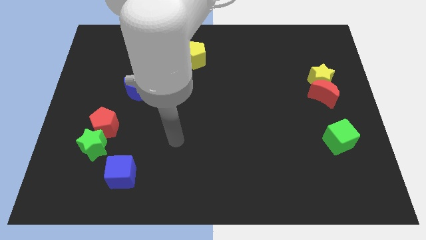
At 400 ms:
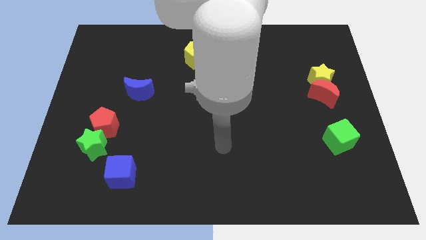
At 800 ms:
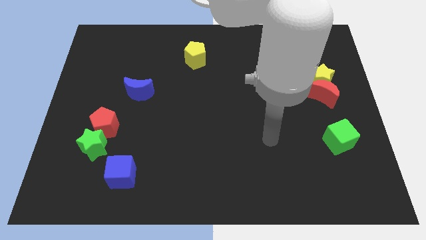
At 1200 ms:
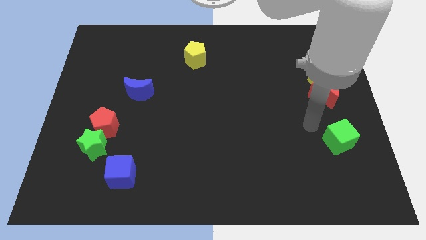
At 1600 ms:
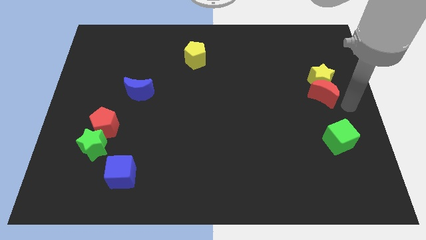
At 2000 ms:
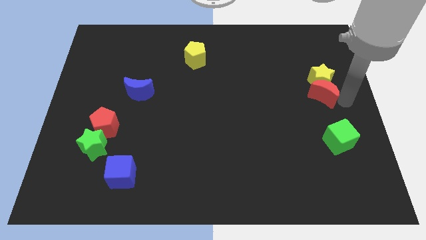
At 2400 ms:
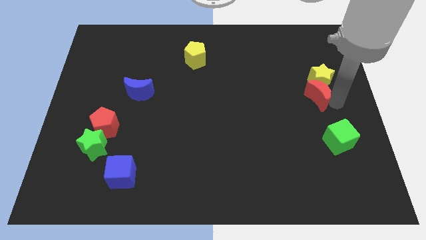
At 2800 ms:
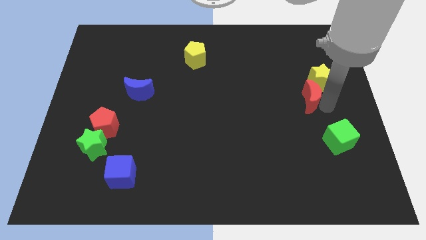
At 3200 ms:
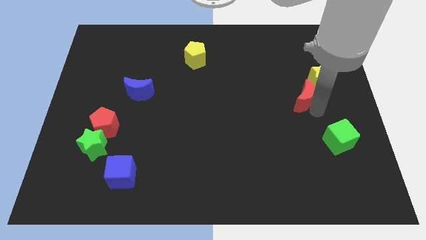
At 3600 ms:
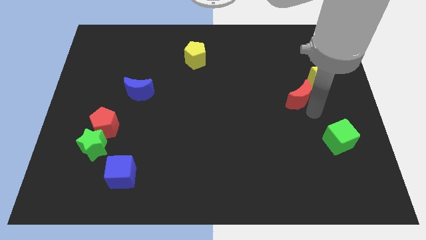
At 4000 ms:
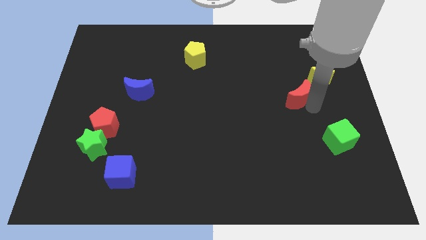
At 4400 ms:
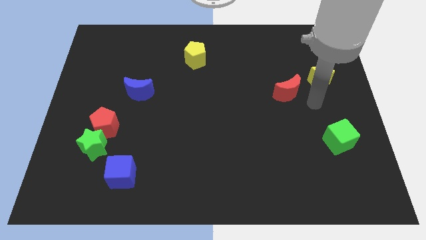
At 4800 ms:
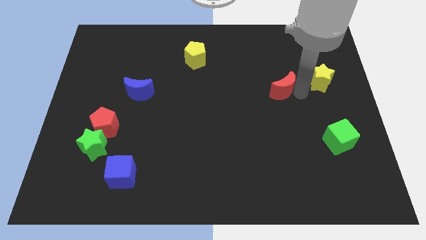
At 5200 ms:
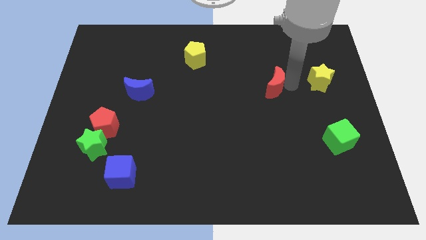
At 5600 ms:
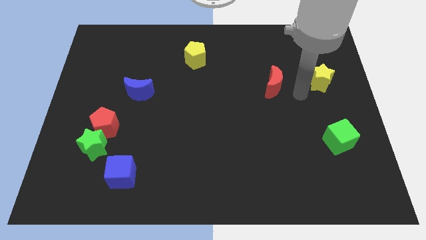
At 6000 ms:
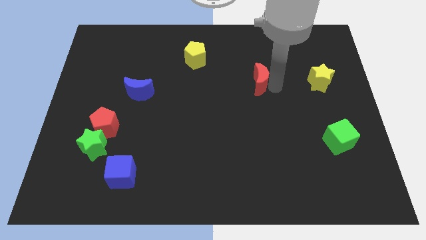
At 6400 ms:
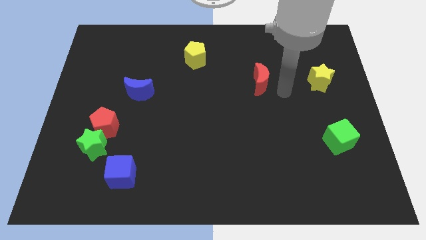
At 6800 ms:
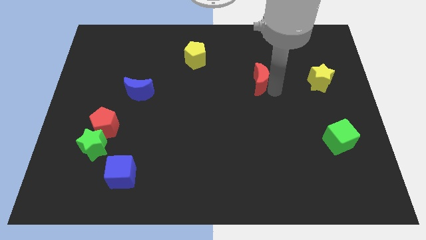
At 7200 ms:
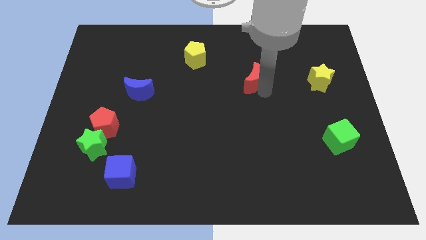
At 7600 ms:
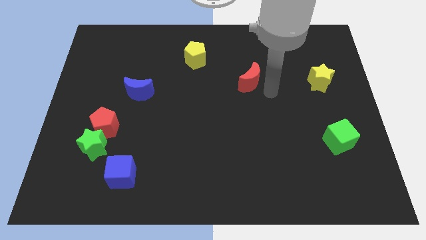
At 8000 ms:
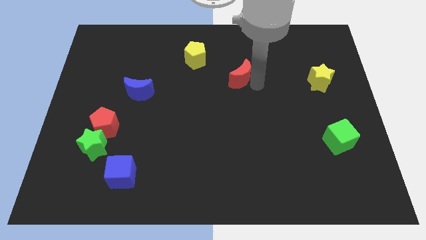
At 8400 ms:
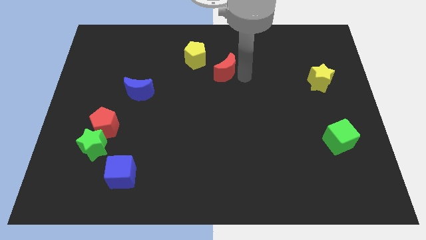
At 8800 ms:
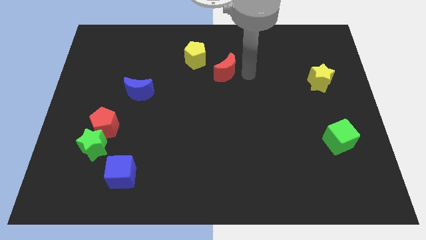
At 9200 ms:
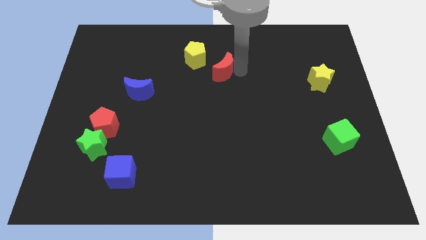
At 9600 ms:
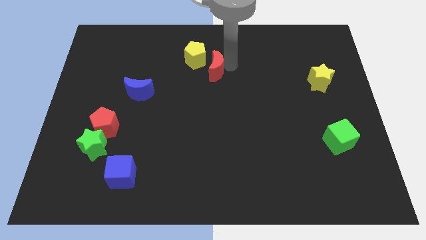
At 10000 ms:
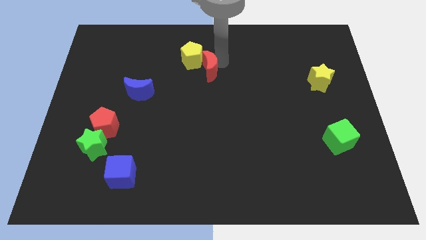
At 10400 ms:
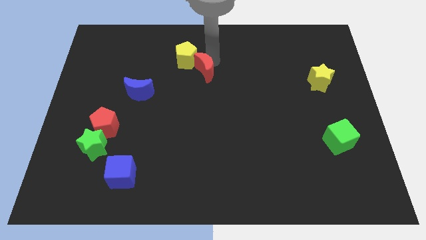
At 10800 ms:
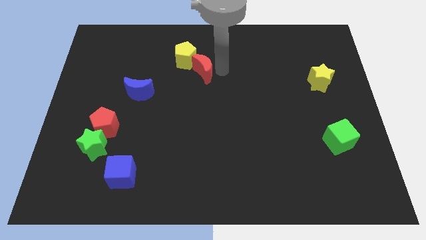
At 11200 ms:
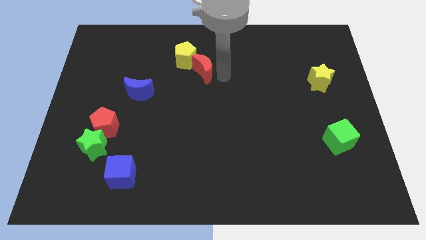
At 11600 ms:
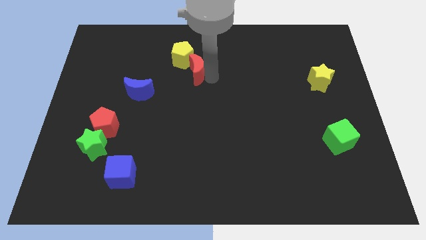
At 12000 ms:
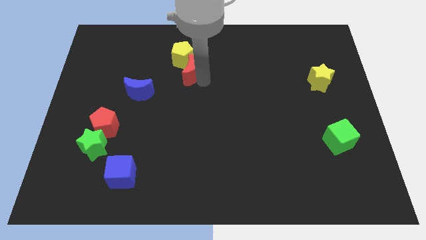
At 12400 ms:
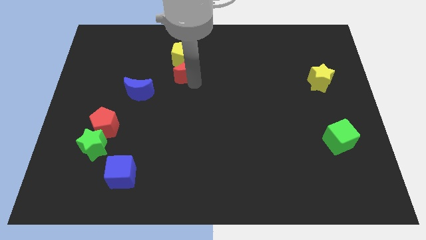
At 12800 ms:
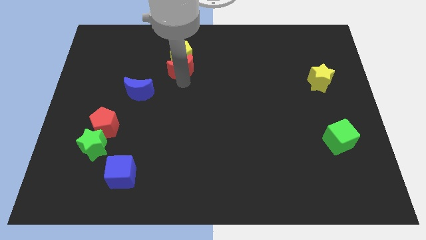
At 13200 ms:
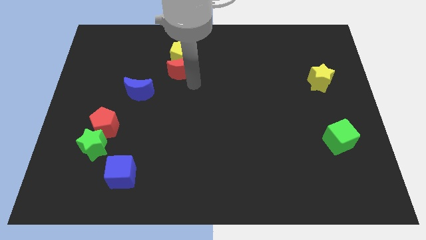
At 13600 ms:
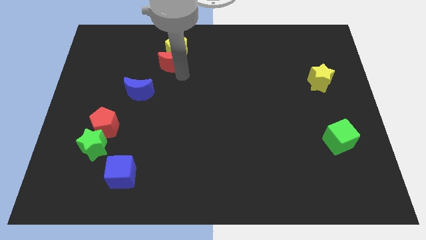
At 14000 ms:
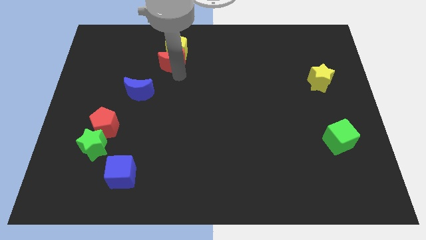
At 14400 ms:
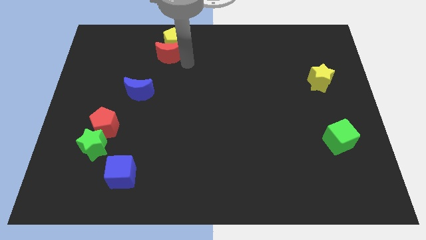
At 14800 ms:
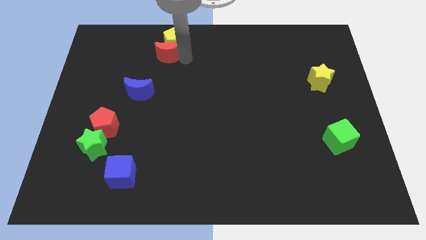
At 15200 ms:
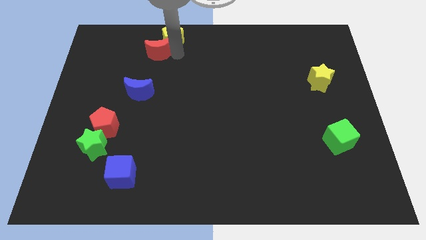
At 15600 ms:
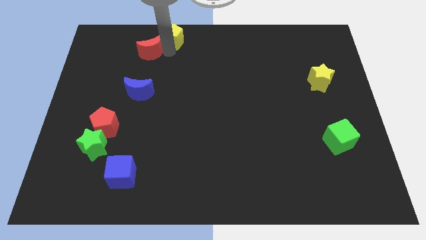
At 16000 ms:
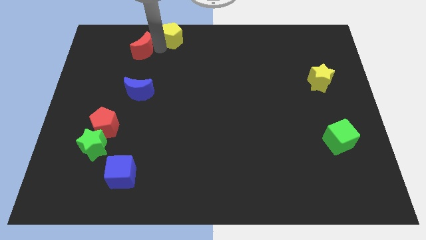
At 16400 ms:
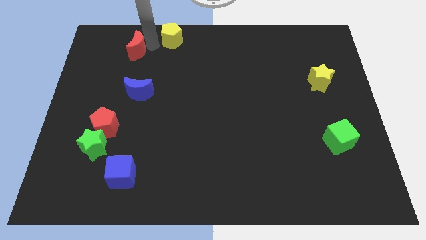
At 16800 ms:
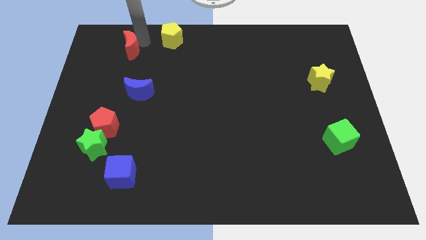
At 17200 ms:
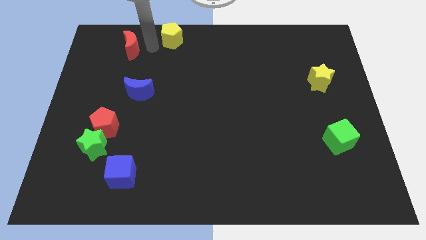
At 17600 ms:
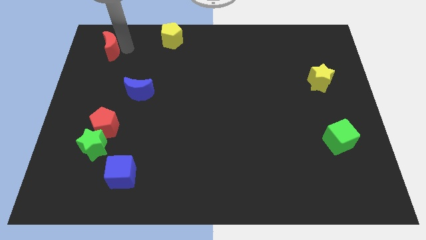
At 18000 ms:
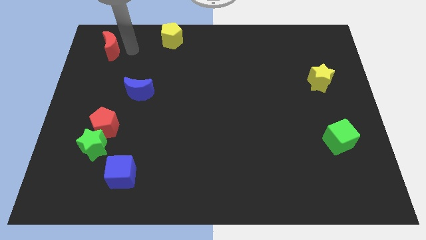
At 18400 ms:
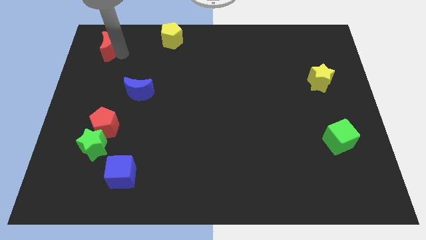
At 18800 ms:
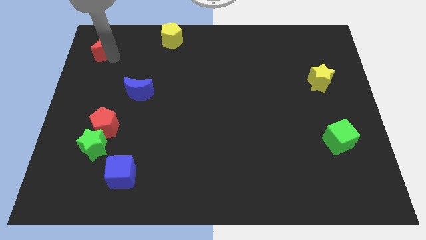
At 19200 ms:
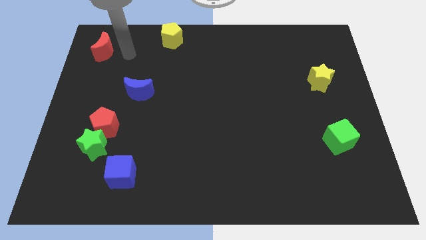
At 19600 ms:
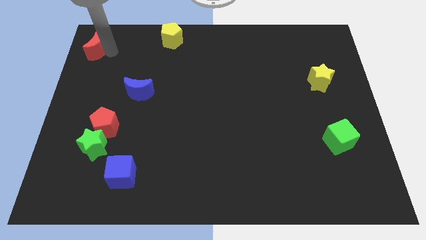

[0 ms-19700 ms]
push the red moon to the top left of the board

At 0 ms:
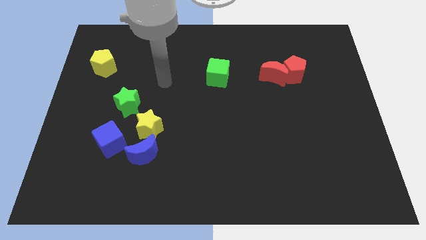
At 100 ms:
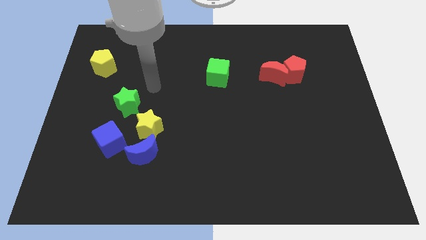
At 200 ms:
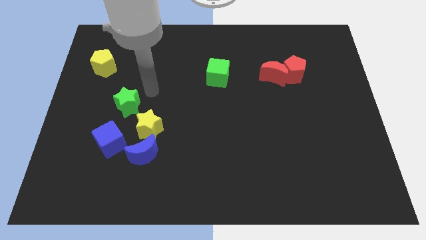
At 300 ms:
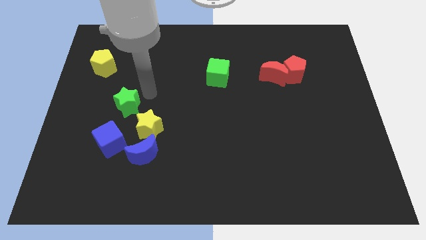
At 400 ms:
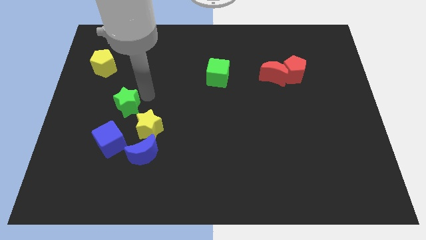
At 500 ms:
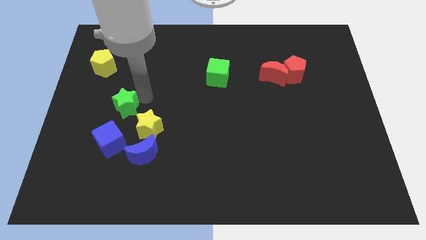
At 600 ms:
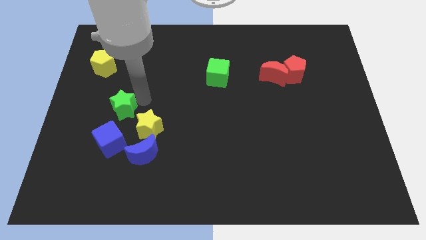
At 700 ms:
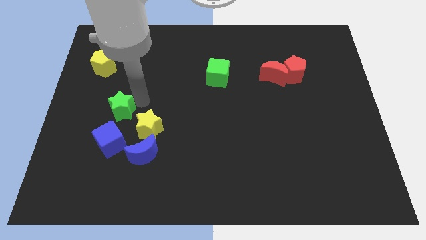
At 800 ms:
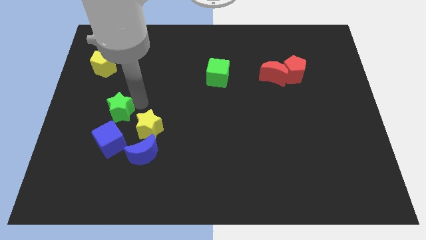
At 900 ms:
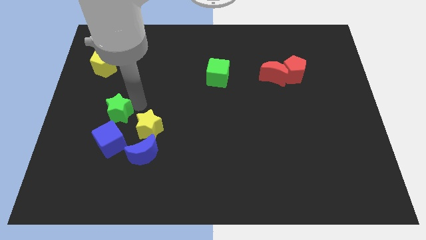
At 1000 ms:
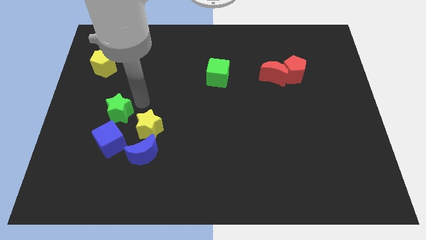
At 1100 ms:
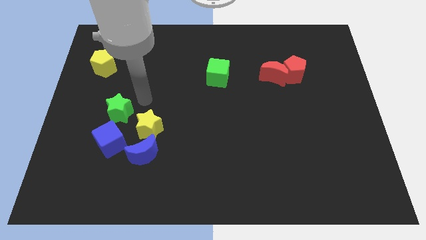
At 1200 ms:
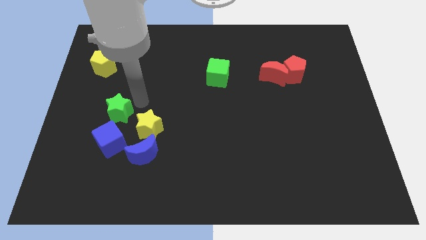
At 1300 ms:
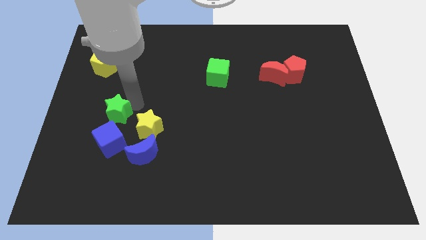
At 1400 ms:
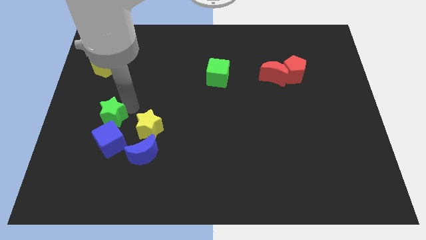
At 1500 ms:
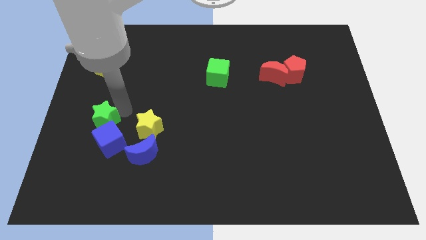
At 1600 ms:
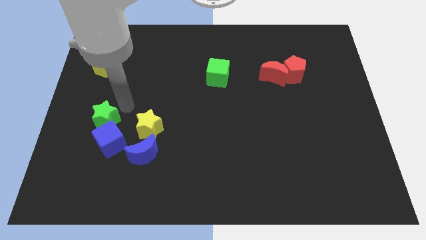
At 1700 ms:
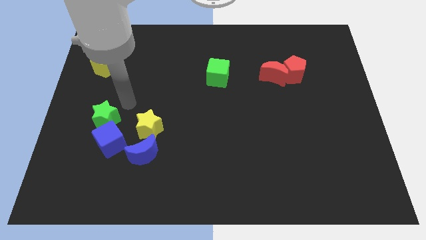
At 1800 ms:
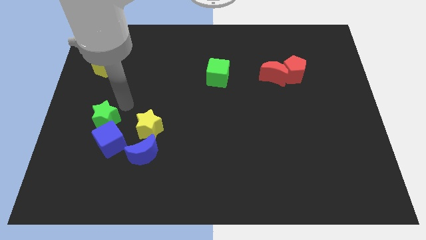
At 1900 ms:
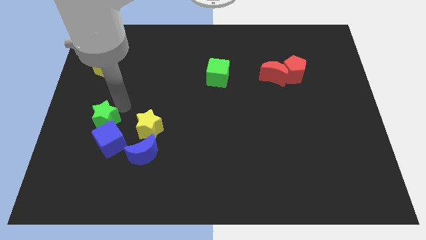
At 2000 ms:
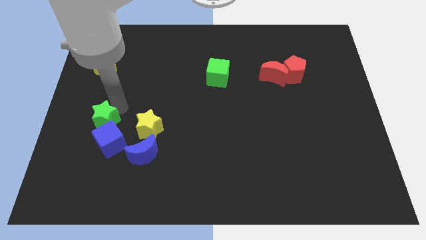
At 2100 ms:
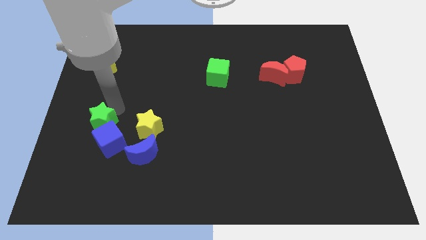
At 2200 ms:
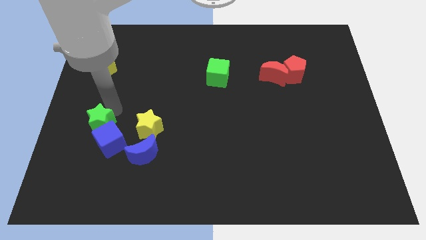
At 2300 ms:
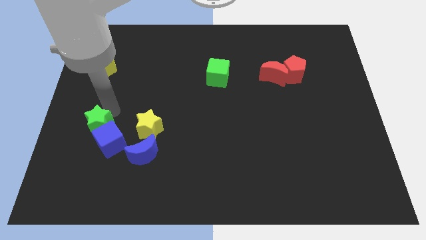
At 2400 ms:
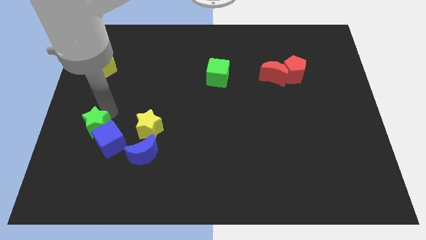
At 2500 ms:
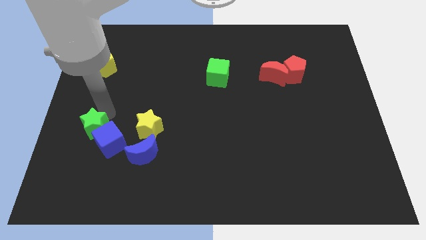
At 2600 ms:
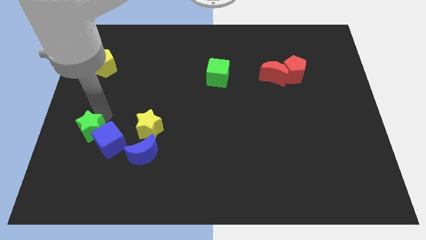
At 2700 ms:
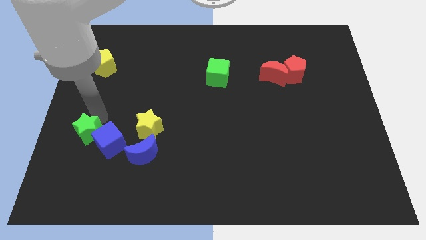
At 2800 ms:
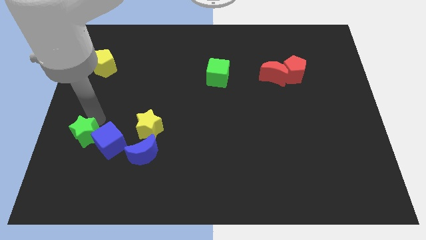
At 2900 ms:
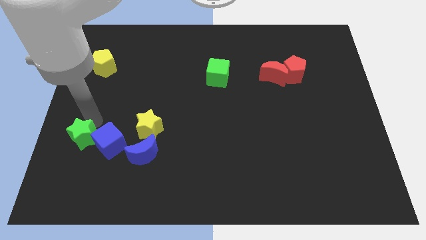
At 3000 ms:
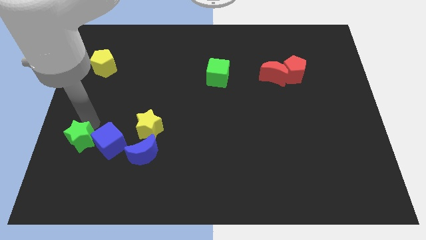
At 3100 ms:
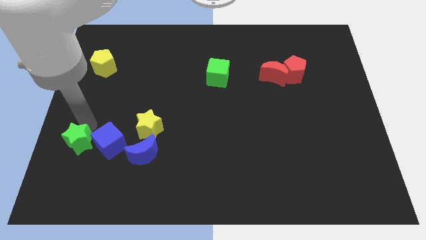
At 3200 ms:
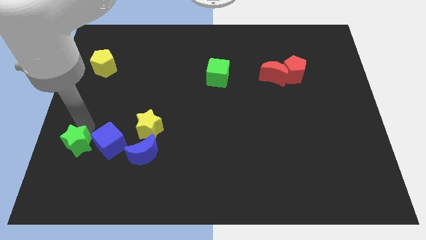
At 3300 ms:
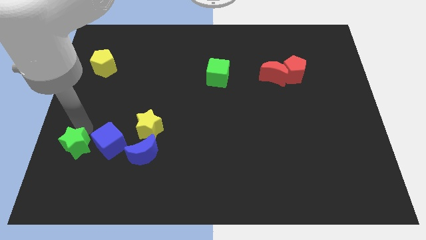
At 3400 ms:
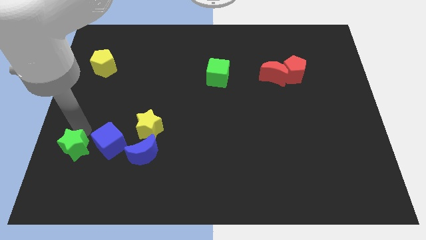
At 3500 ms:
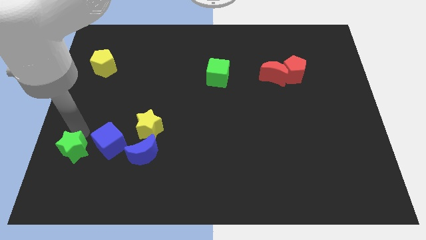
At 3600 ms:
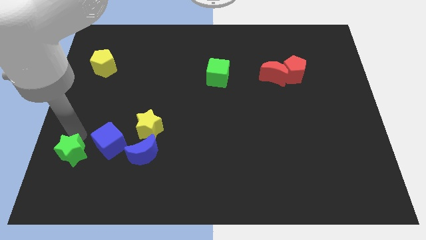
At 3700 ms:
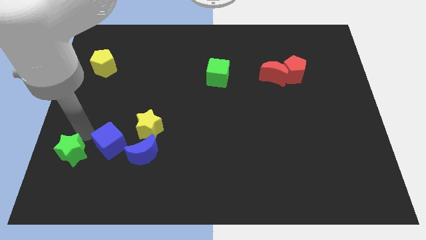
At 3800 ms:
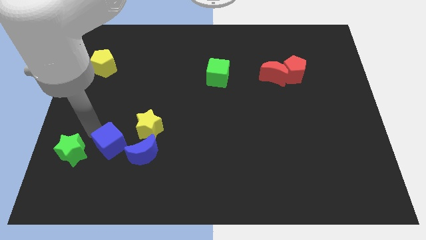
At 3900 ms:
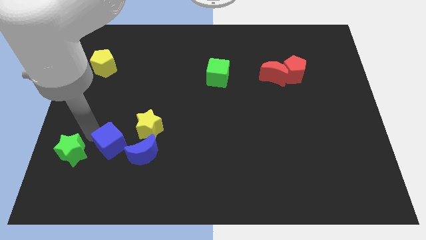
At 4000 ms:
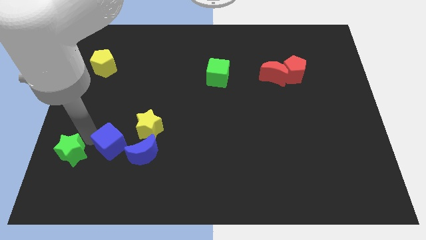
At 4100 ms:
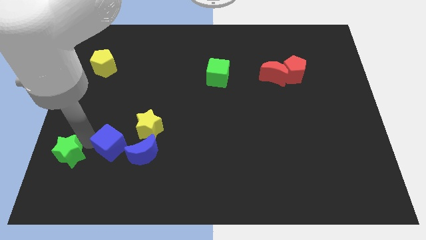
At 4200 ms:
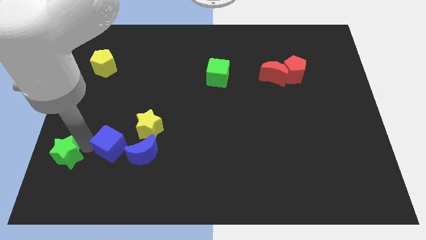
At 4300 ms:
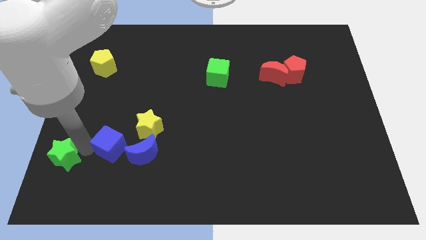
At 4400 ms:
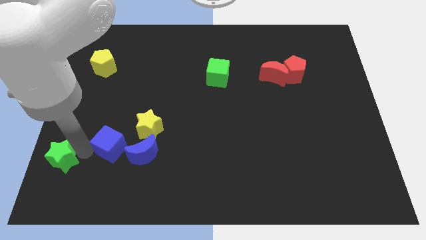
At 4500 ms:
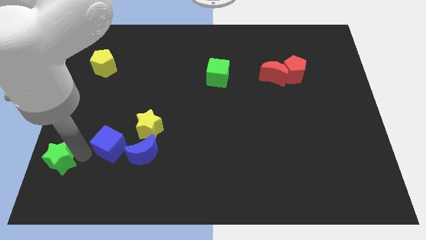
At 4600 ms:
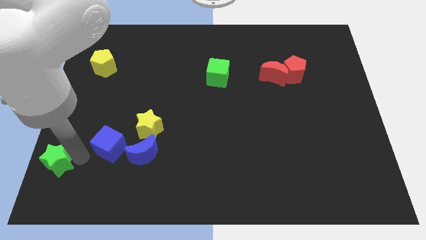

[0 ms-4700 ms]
push the green star to the bottom left of the board
